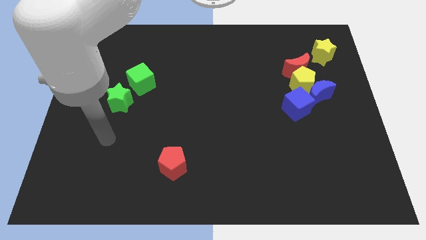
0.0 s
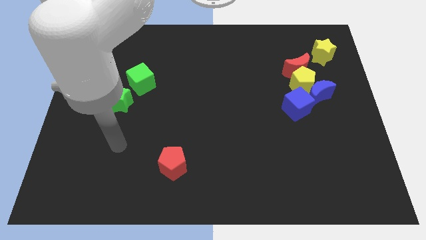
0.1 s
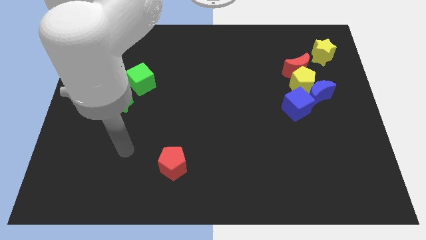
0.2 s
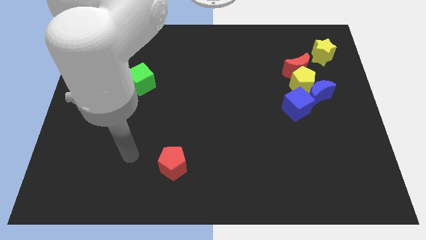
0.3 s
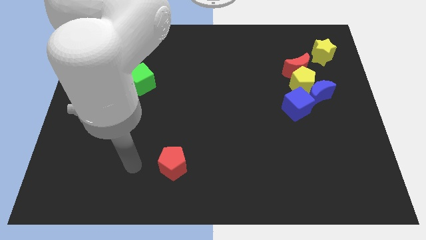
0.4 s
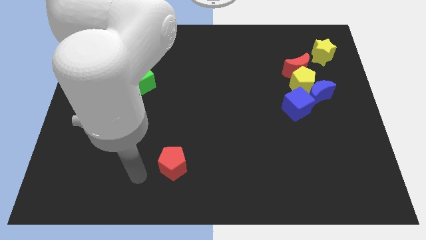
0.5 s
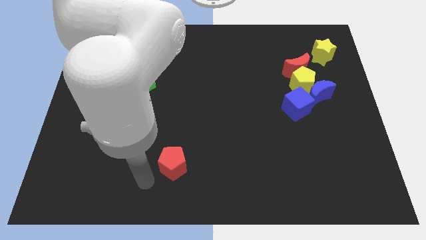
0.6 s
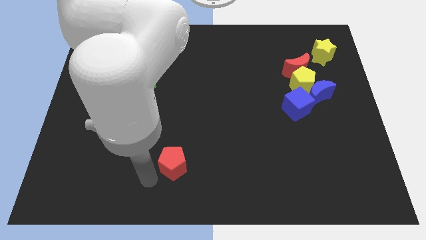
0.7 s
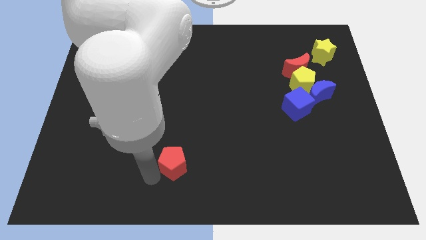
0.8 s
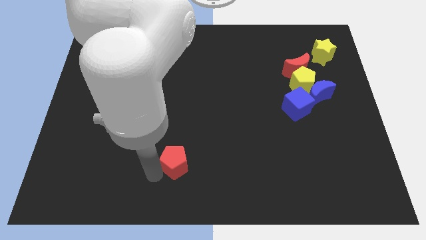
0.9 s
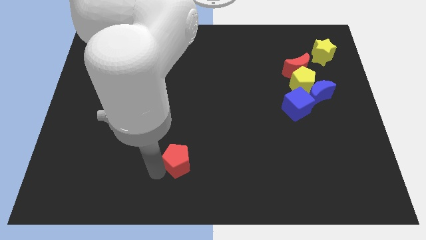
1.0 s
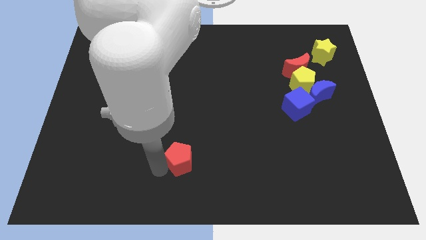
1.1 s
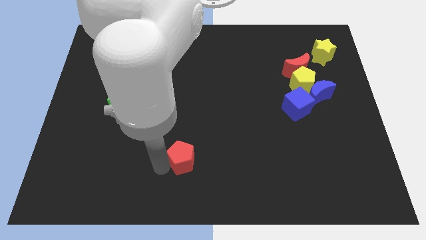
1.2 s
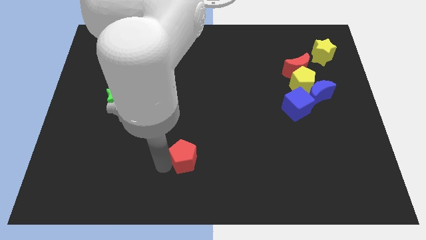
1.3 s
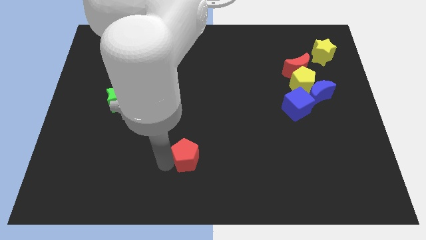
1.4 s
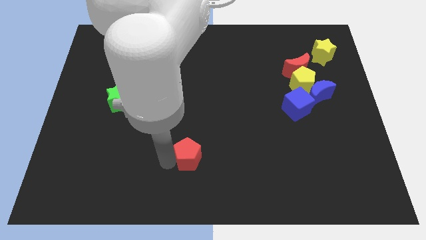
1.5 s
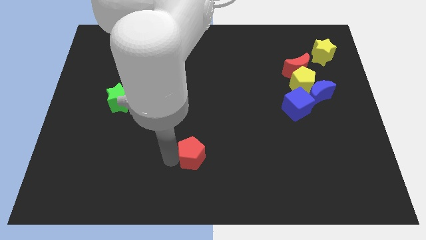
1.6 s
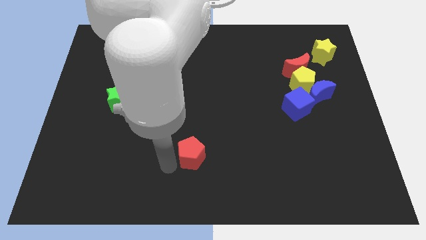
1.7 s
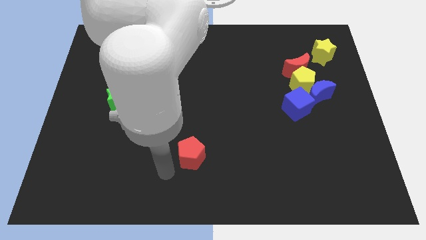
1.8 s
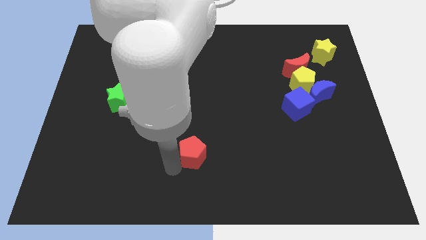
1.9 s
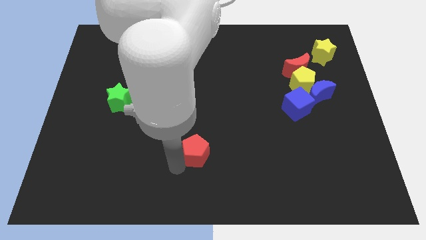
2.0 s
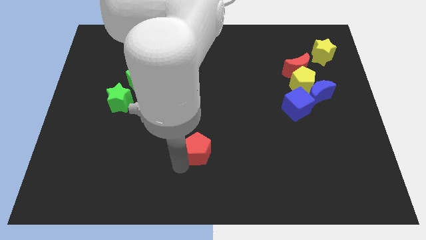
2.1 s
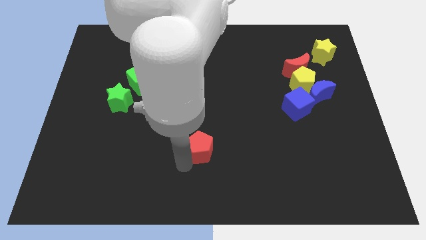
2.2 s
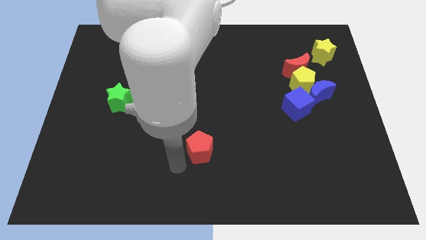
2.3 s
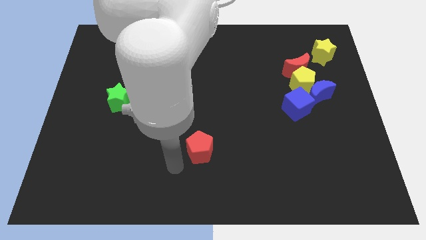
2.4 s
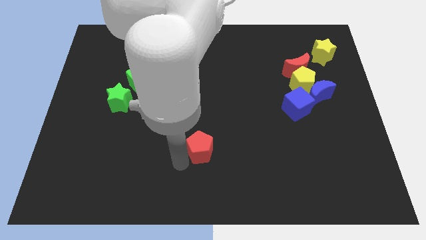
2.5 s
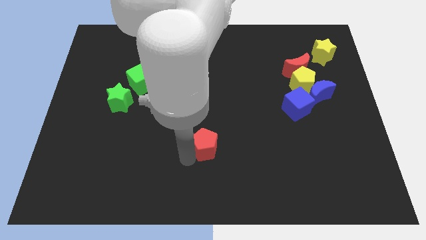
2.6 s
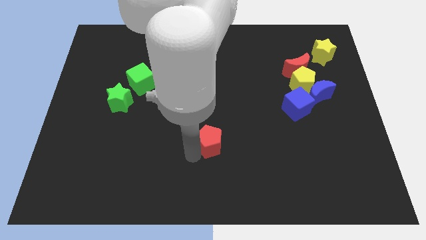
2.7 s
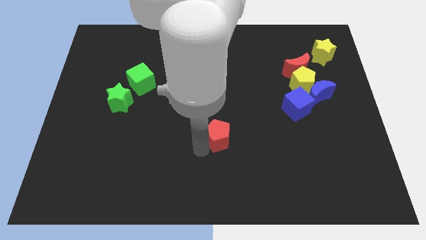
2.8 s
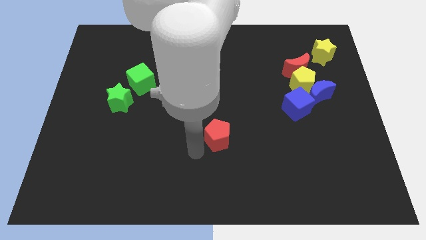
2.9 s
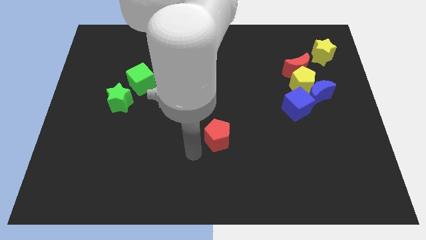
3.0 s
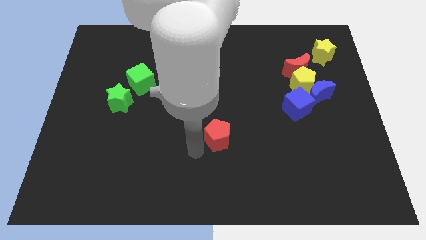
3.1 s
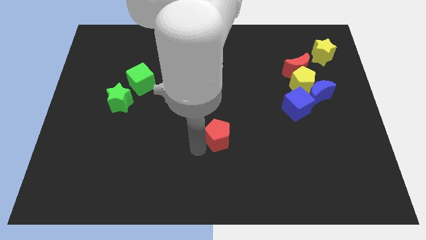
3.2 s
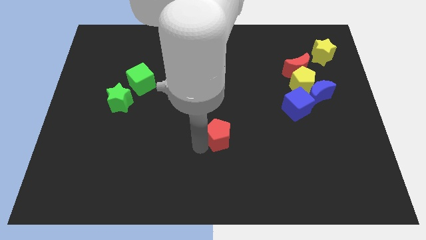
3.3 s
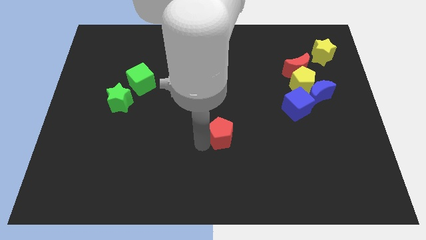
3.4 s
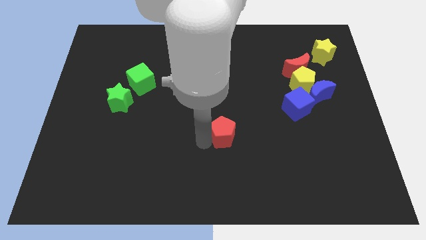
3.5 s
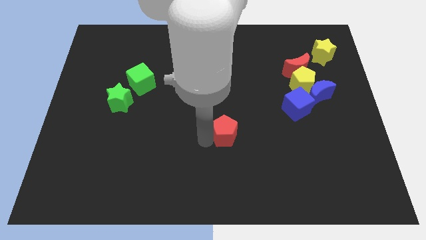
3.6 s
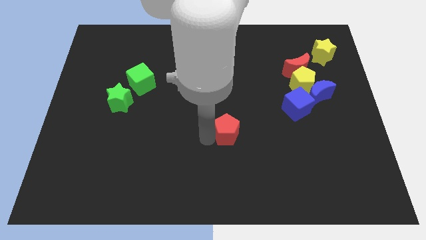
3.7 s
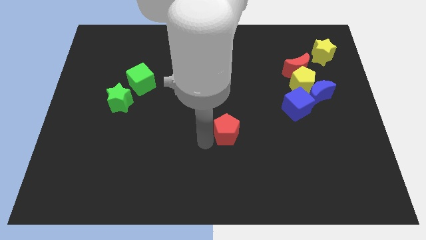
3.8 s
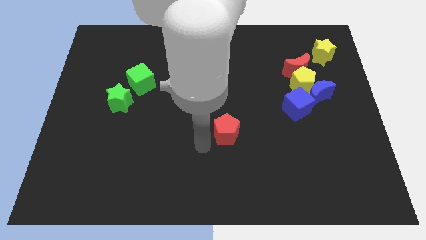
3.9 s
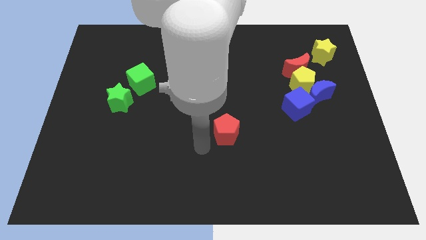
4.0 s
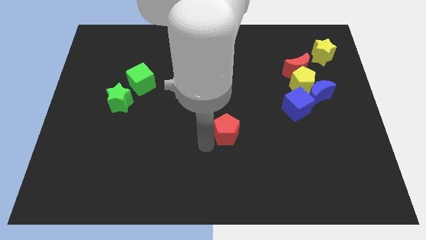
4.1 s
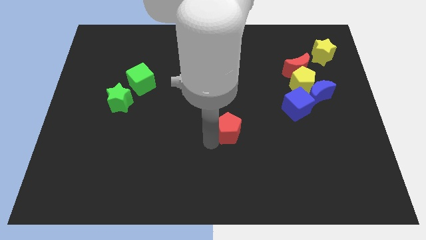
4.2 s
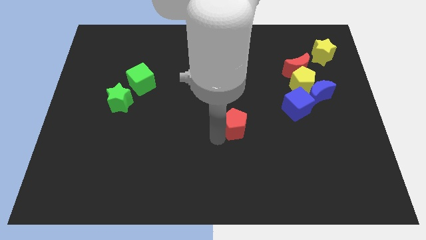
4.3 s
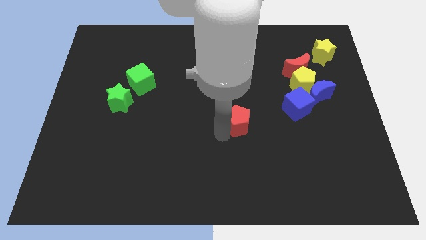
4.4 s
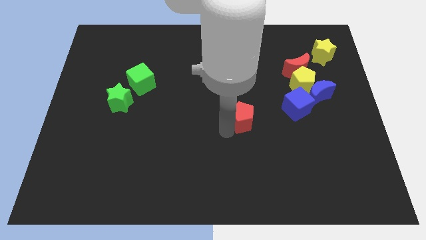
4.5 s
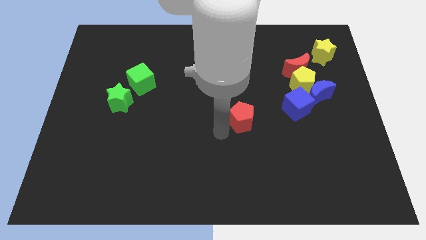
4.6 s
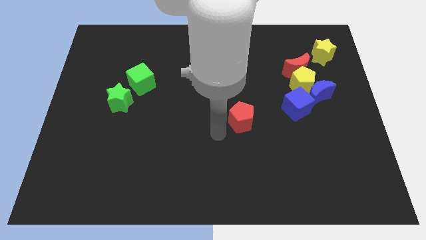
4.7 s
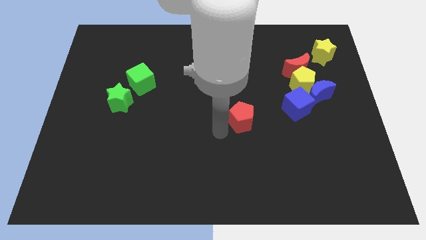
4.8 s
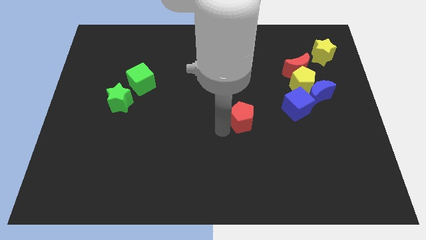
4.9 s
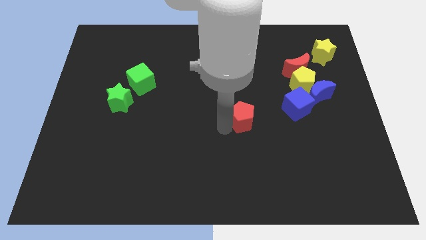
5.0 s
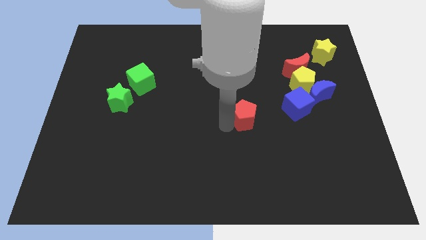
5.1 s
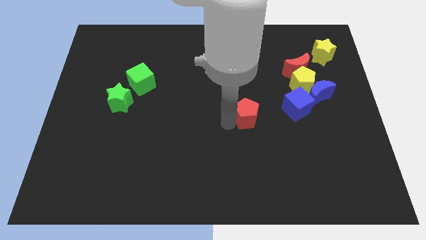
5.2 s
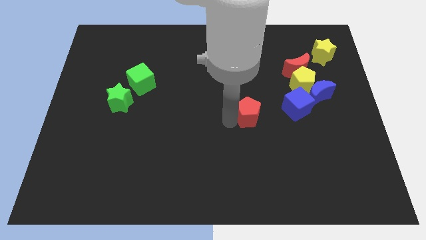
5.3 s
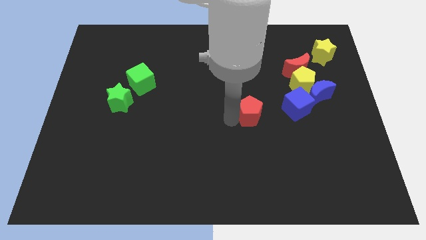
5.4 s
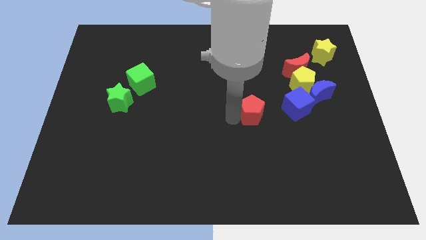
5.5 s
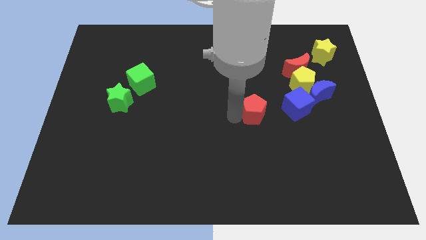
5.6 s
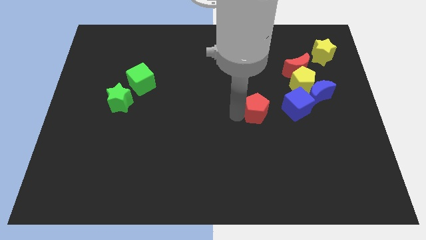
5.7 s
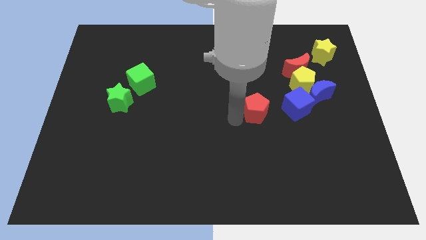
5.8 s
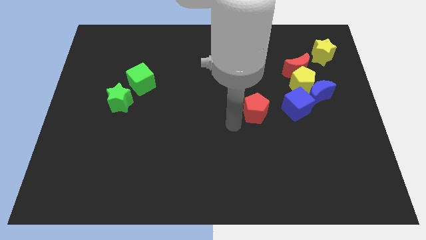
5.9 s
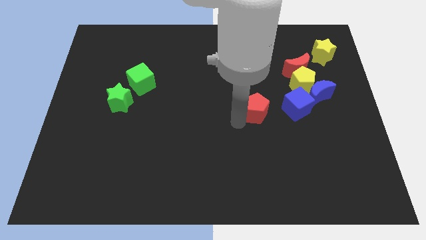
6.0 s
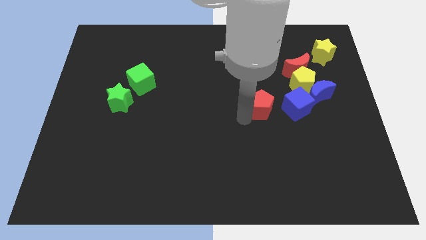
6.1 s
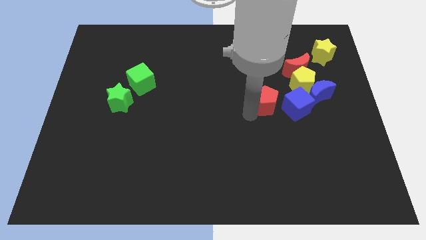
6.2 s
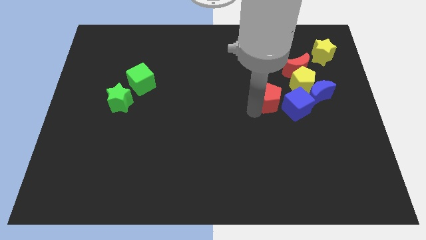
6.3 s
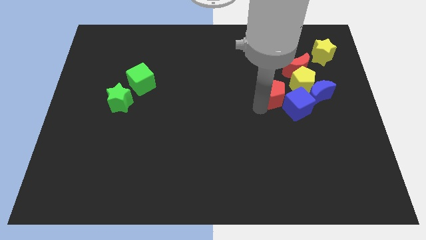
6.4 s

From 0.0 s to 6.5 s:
slide the red pentagon to the bottom left side of the red moon

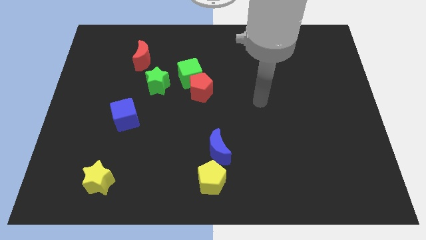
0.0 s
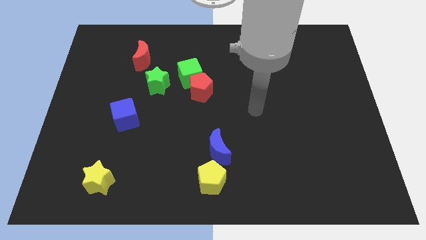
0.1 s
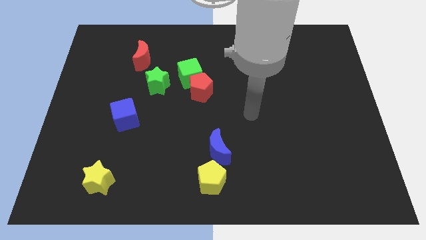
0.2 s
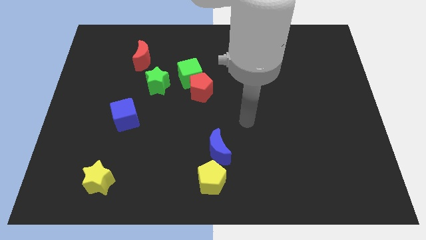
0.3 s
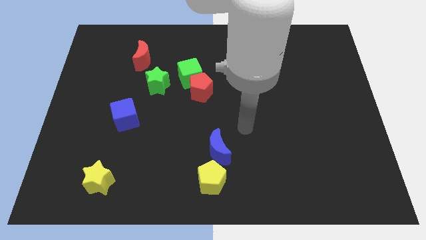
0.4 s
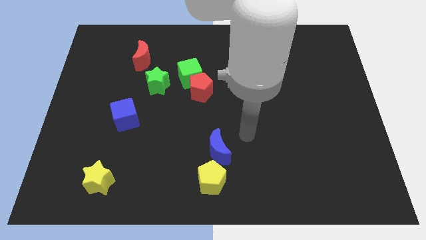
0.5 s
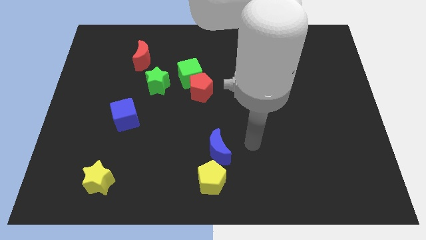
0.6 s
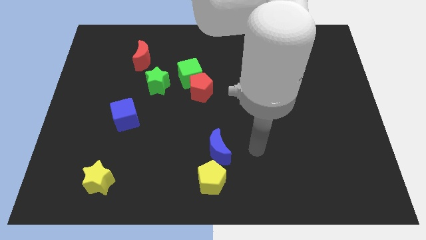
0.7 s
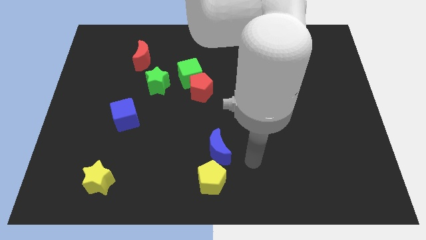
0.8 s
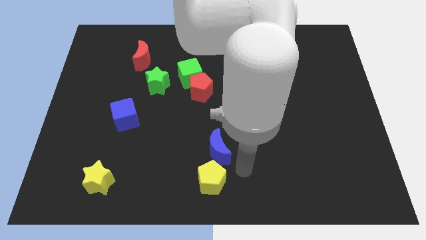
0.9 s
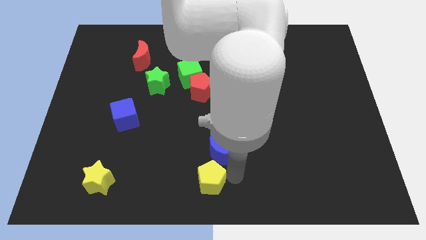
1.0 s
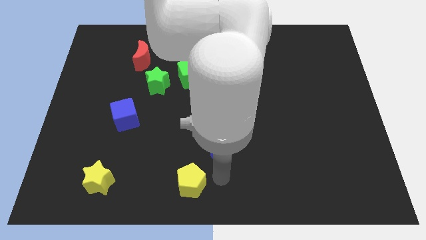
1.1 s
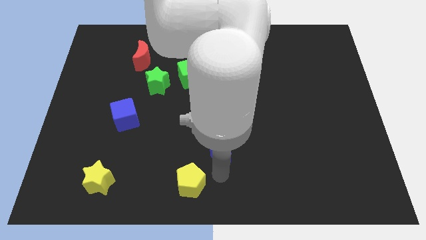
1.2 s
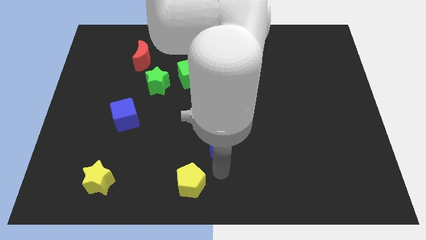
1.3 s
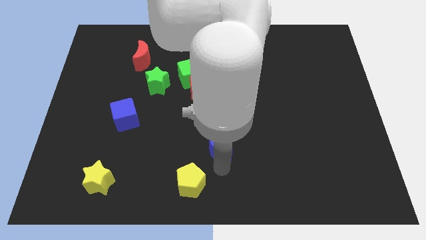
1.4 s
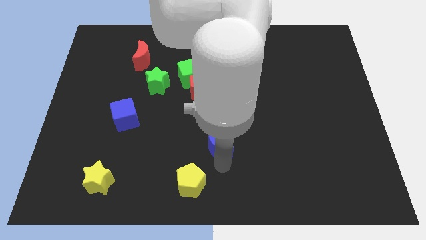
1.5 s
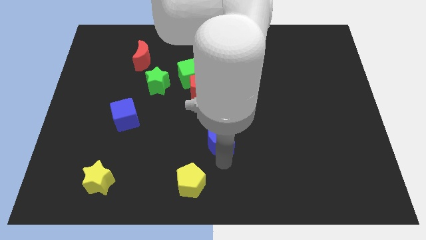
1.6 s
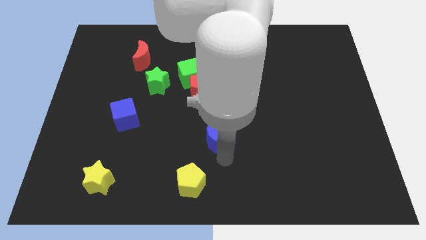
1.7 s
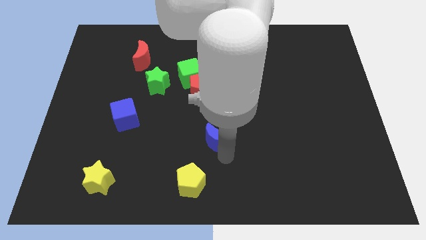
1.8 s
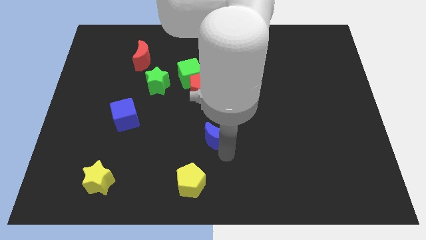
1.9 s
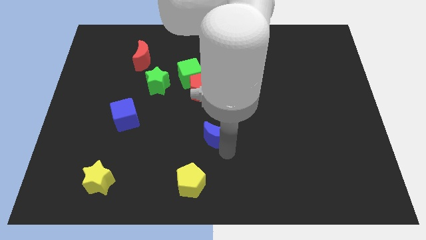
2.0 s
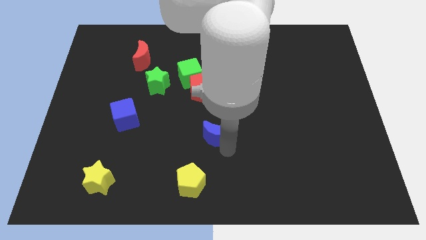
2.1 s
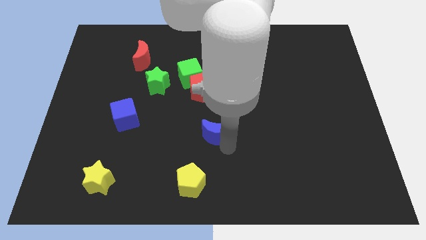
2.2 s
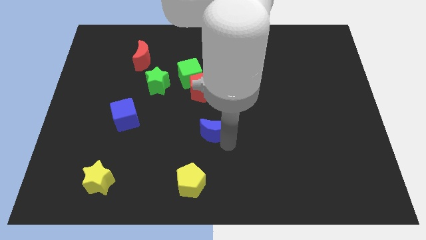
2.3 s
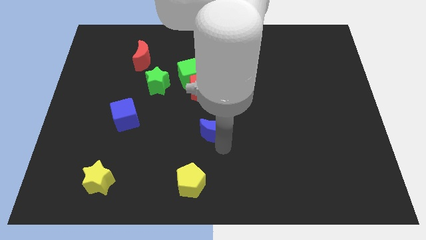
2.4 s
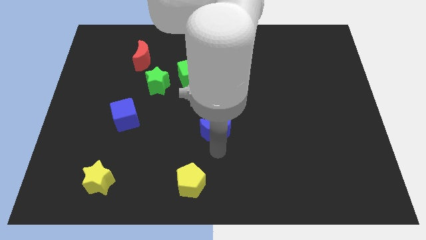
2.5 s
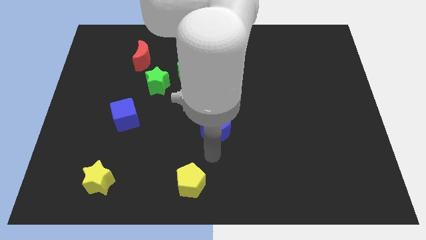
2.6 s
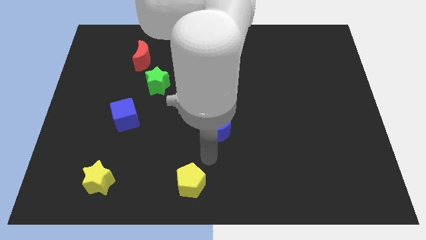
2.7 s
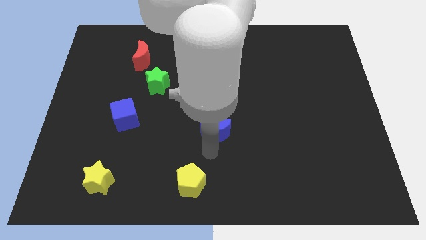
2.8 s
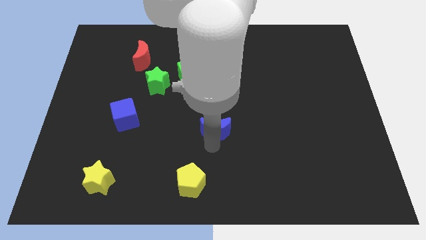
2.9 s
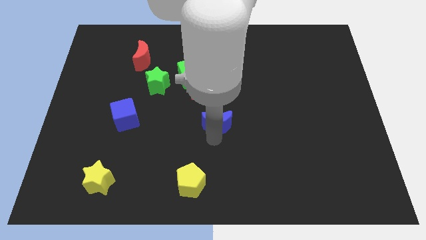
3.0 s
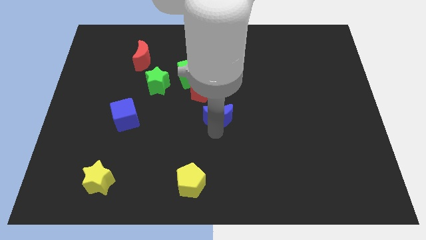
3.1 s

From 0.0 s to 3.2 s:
slide the blue moon diagonally down and to the right of the red pentagon
